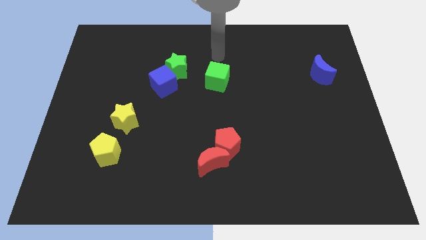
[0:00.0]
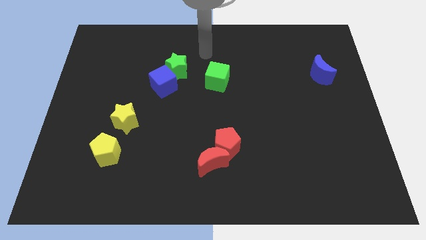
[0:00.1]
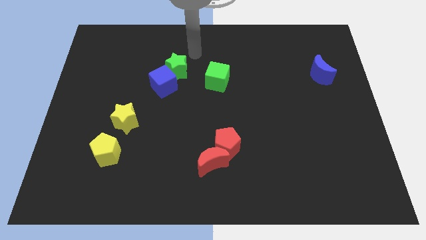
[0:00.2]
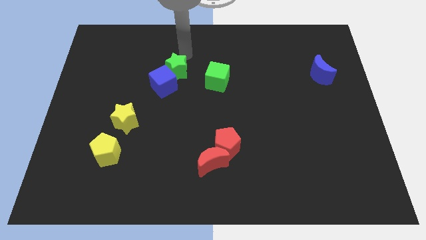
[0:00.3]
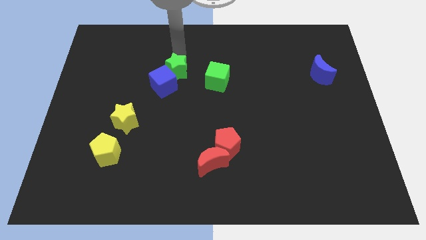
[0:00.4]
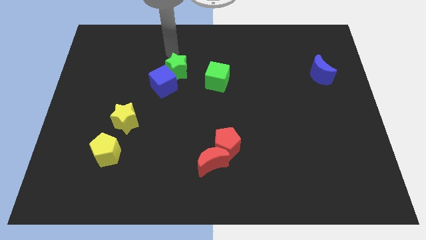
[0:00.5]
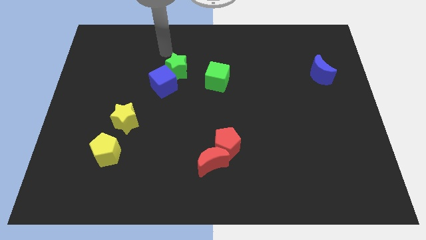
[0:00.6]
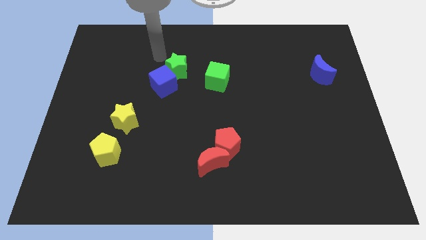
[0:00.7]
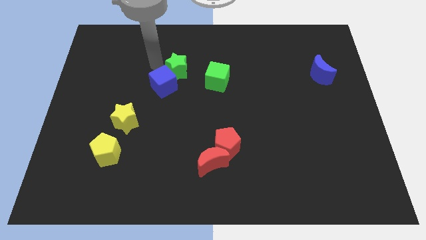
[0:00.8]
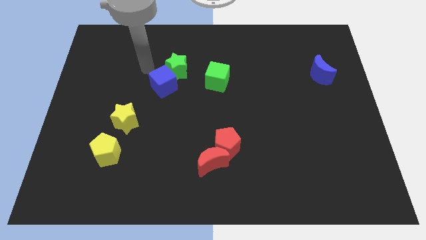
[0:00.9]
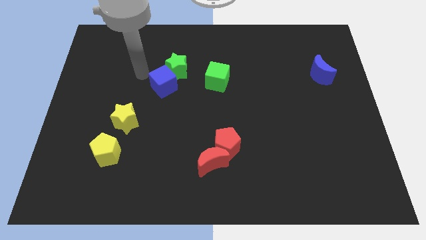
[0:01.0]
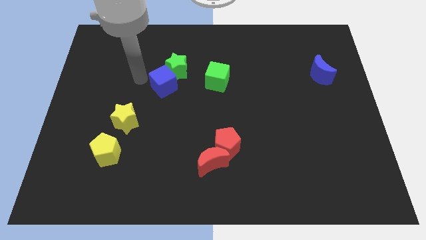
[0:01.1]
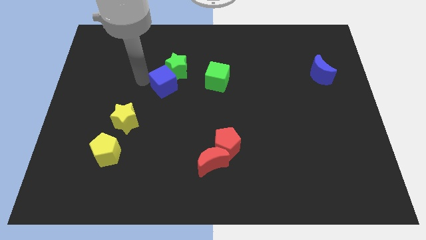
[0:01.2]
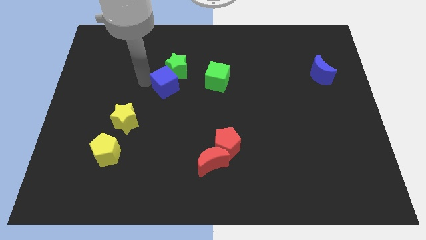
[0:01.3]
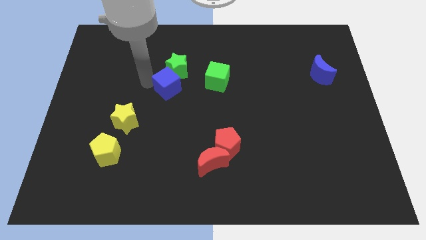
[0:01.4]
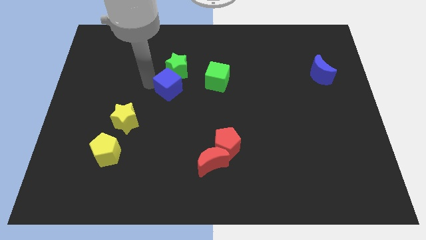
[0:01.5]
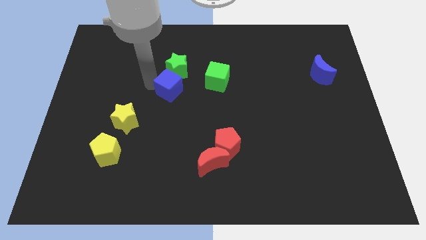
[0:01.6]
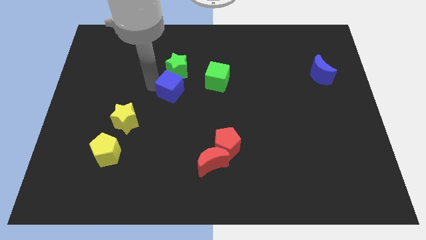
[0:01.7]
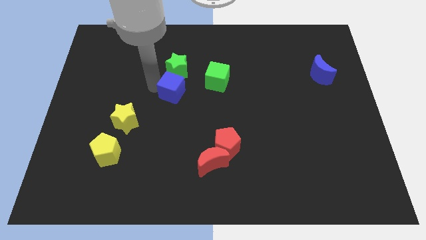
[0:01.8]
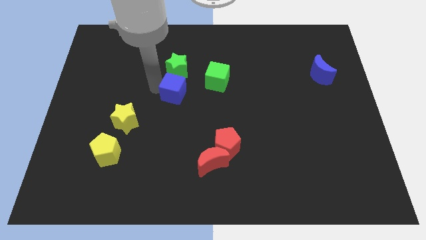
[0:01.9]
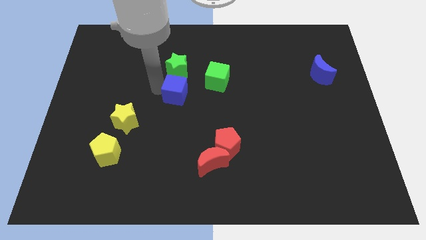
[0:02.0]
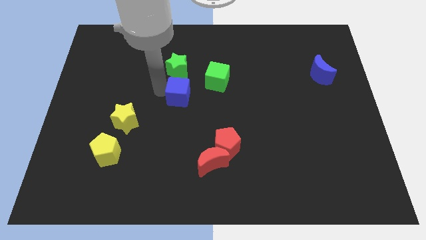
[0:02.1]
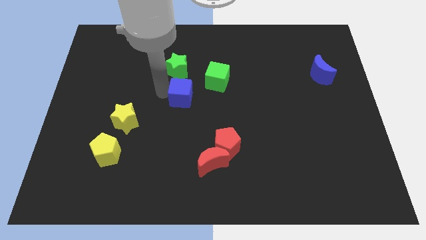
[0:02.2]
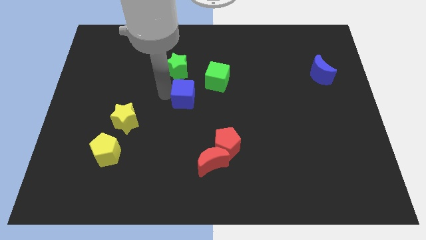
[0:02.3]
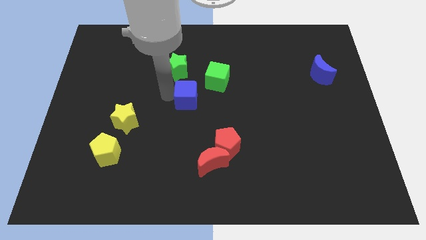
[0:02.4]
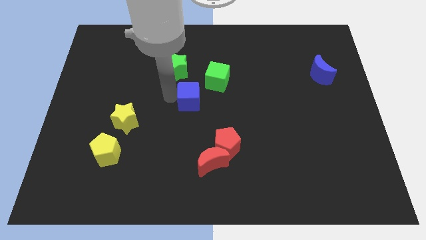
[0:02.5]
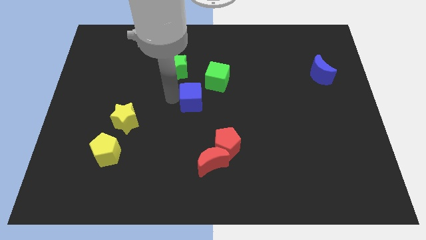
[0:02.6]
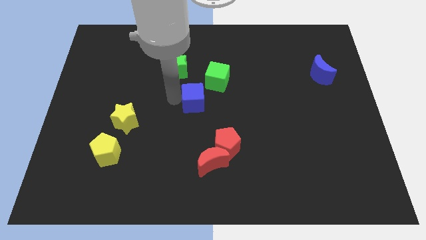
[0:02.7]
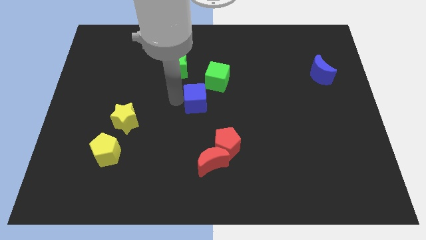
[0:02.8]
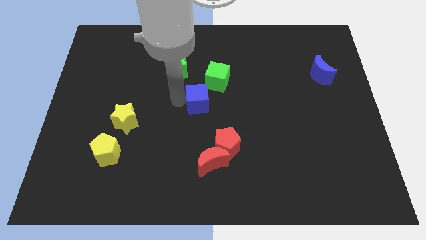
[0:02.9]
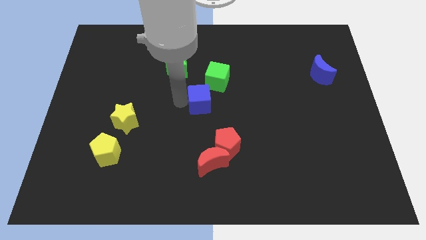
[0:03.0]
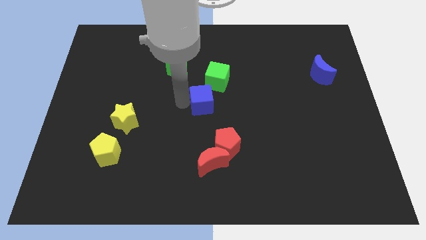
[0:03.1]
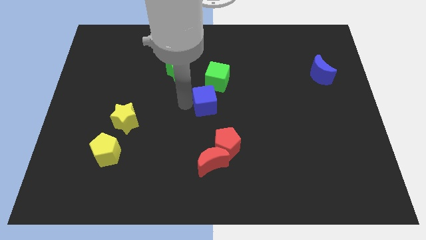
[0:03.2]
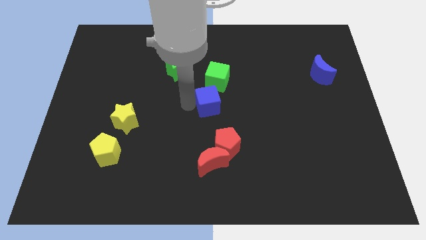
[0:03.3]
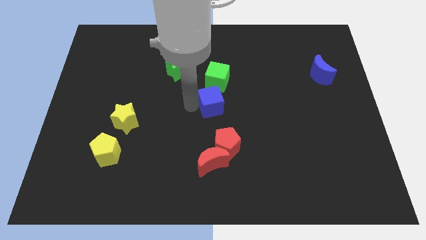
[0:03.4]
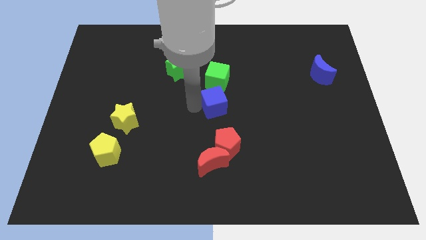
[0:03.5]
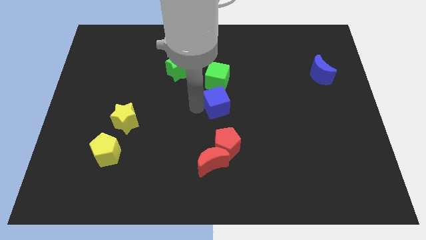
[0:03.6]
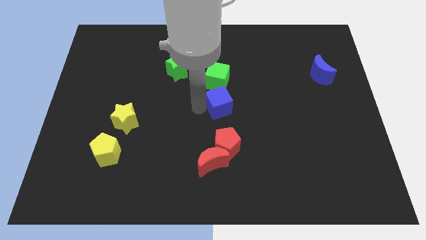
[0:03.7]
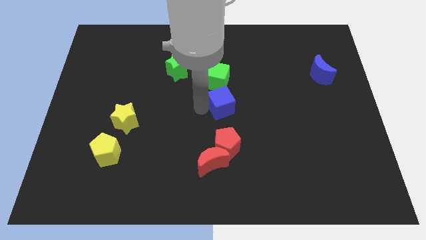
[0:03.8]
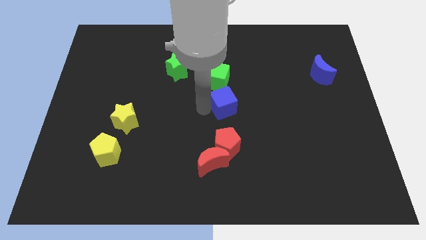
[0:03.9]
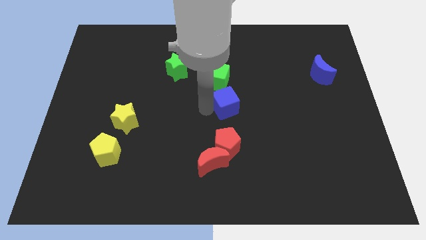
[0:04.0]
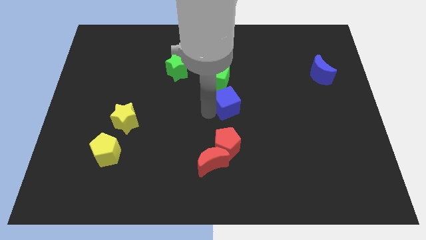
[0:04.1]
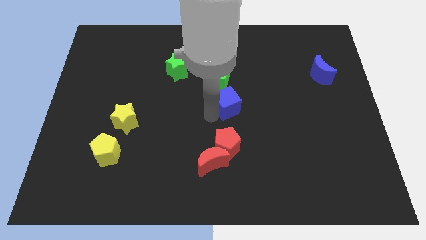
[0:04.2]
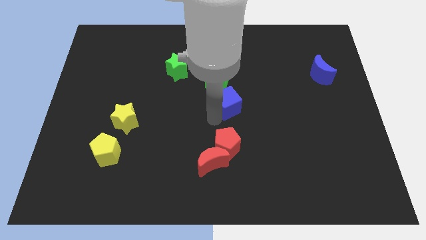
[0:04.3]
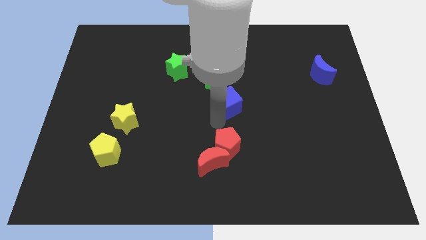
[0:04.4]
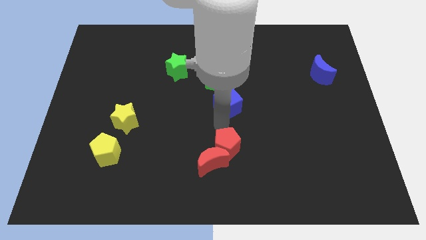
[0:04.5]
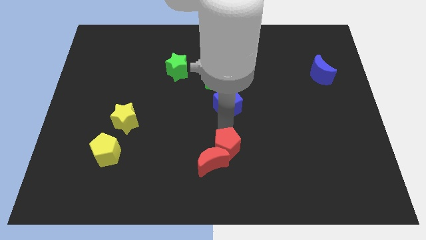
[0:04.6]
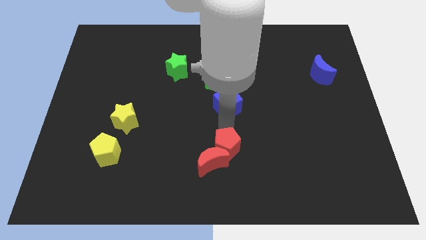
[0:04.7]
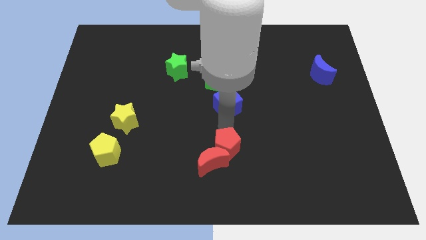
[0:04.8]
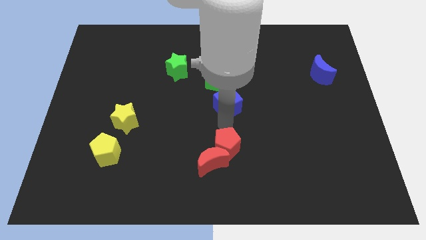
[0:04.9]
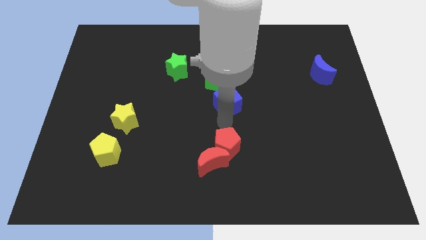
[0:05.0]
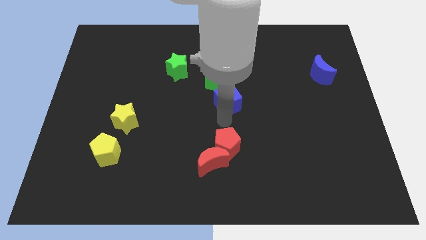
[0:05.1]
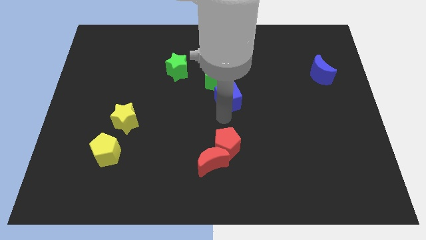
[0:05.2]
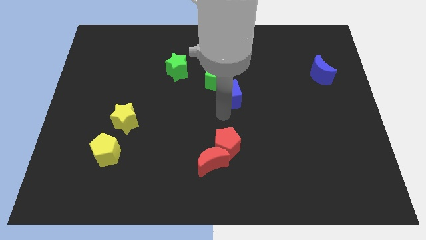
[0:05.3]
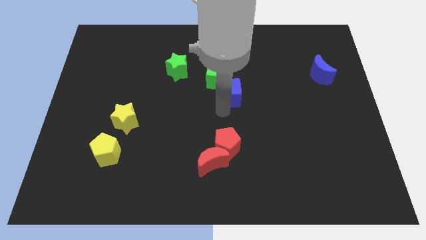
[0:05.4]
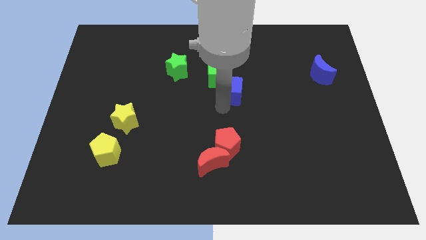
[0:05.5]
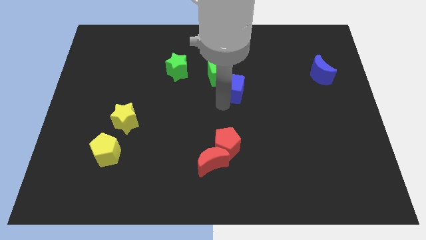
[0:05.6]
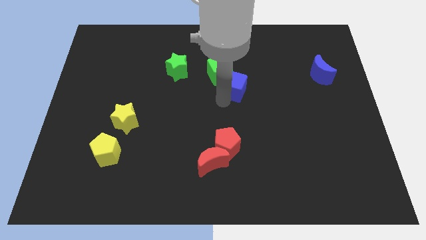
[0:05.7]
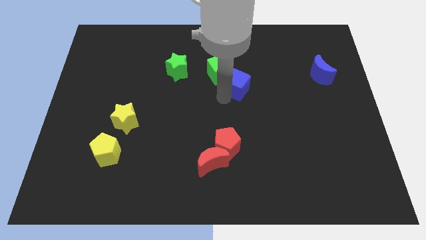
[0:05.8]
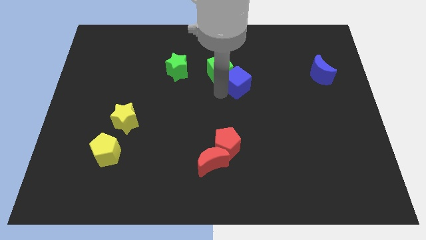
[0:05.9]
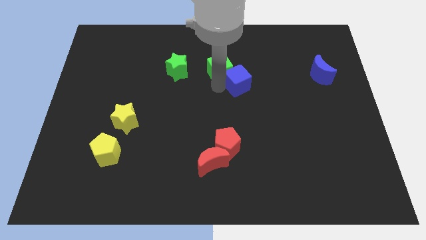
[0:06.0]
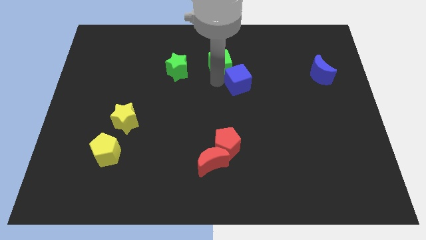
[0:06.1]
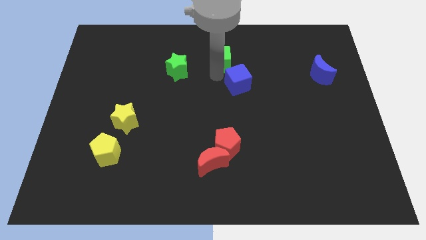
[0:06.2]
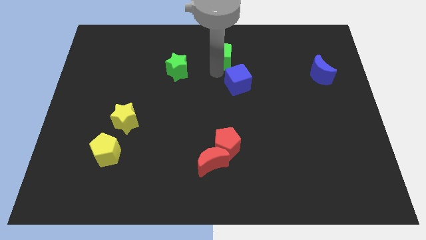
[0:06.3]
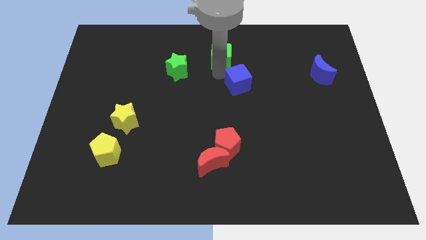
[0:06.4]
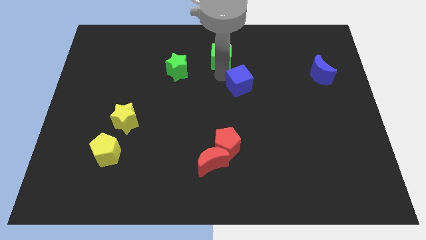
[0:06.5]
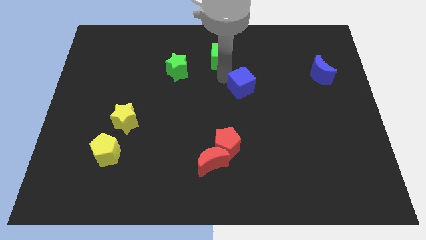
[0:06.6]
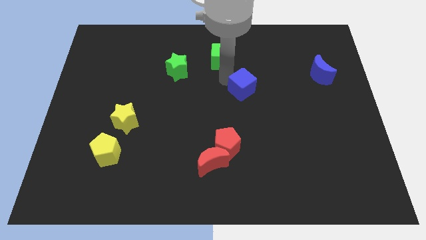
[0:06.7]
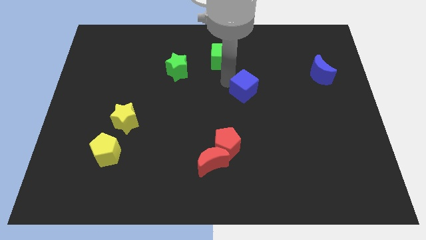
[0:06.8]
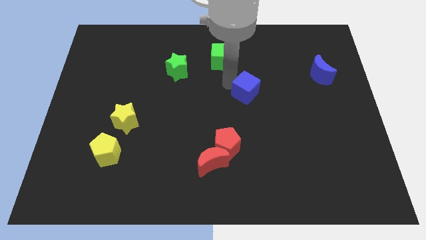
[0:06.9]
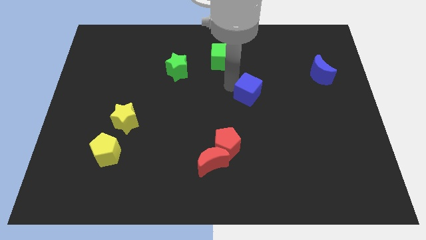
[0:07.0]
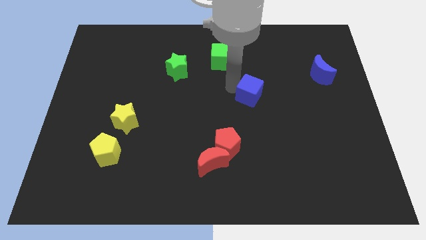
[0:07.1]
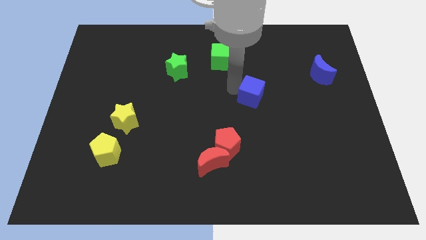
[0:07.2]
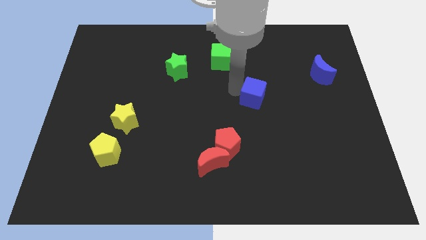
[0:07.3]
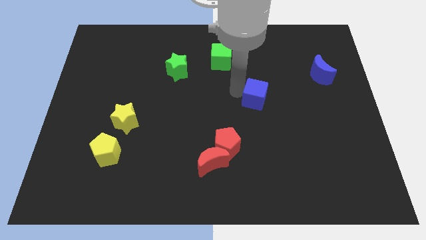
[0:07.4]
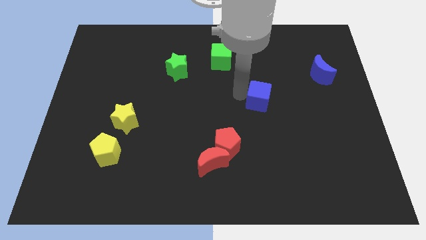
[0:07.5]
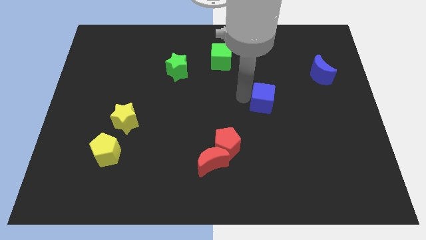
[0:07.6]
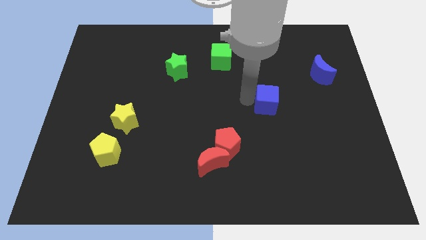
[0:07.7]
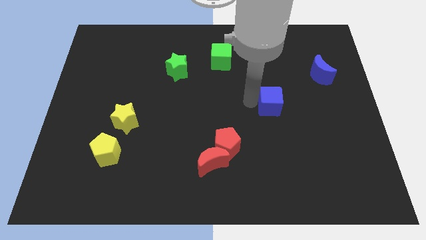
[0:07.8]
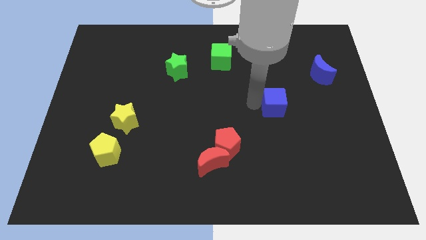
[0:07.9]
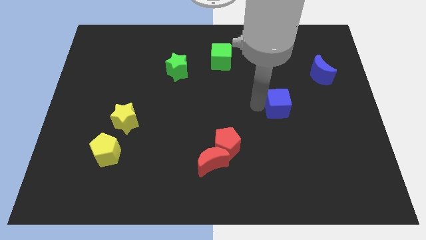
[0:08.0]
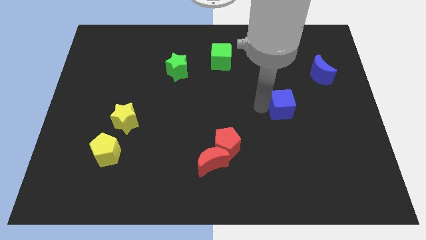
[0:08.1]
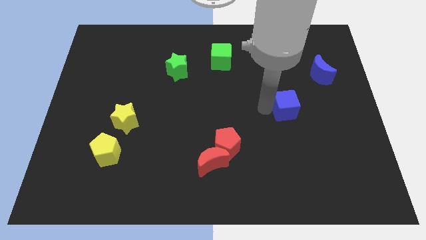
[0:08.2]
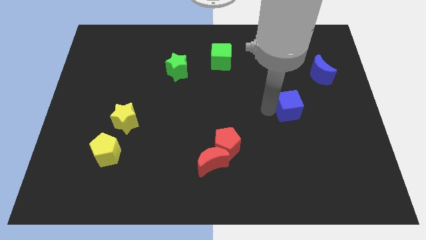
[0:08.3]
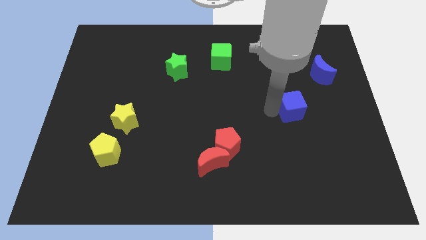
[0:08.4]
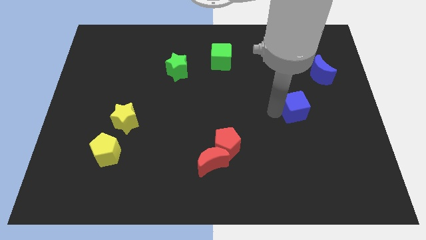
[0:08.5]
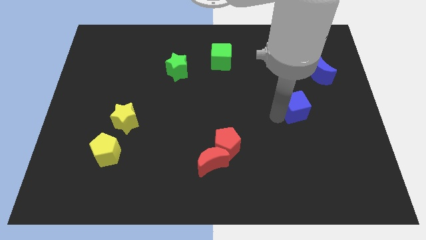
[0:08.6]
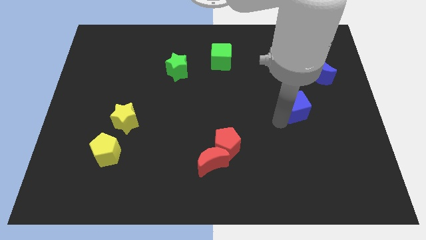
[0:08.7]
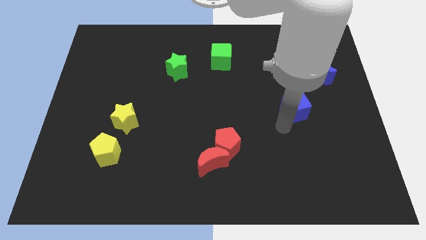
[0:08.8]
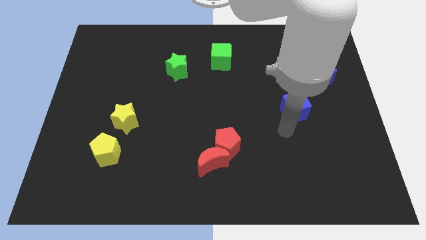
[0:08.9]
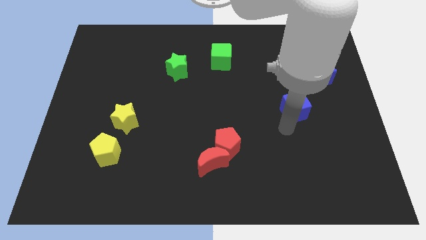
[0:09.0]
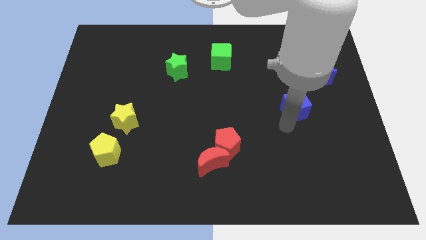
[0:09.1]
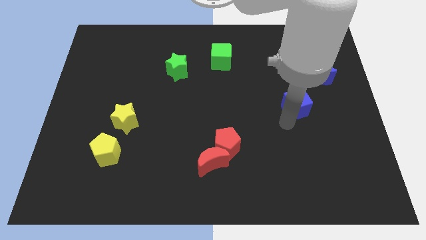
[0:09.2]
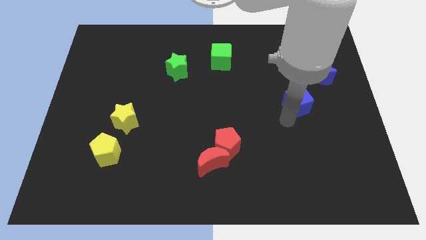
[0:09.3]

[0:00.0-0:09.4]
move the blue cube diagonally down and to the left of the blue moon
